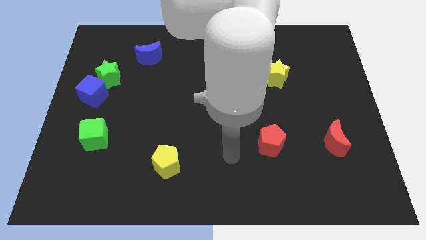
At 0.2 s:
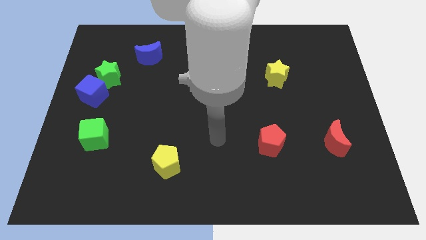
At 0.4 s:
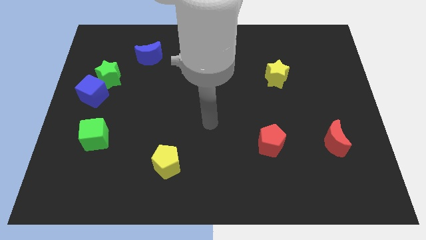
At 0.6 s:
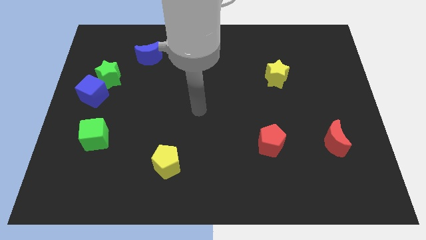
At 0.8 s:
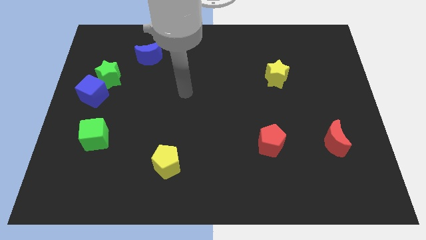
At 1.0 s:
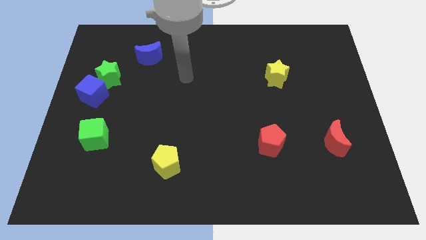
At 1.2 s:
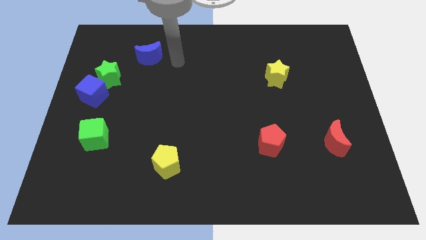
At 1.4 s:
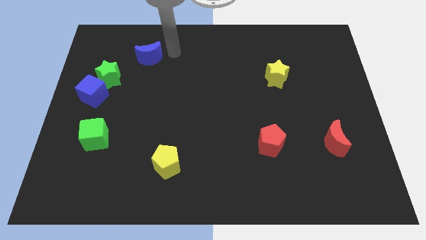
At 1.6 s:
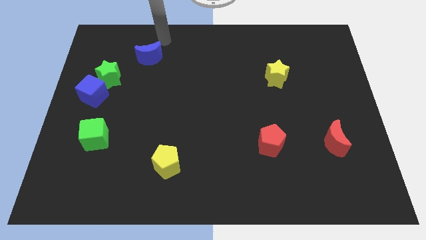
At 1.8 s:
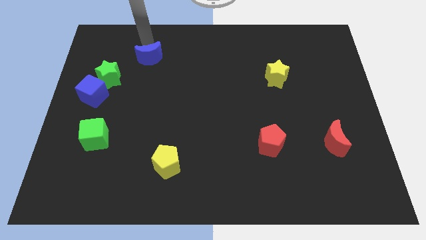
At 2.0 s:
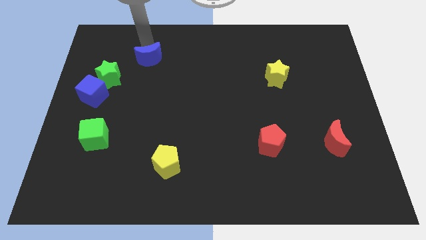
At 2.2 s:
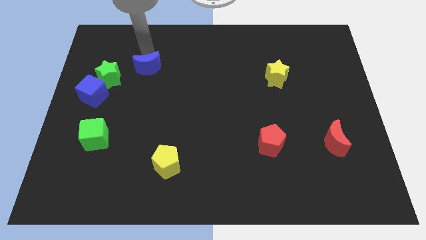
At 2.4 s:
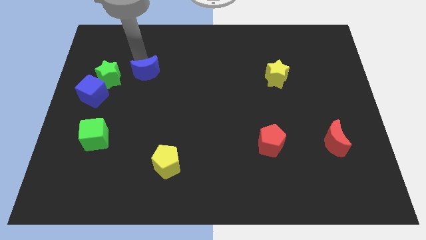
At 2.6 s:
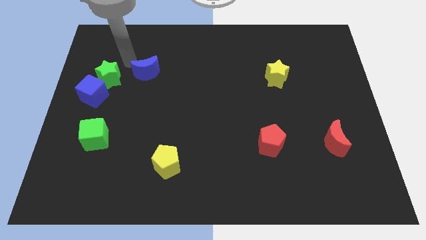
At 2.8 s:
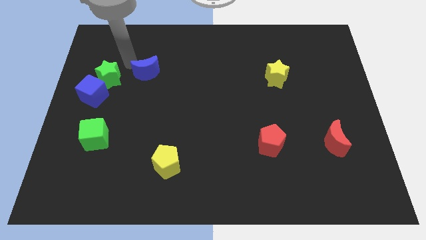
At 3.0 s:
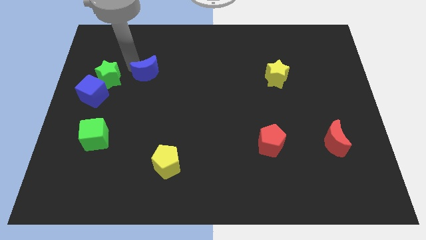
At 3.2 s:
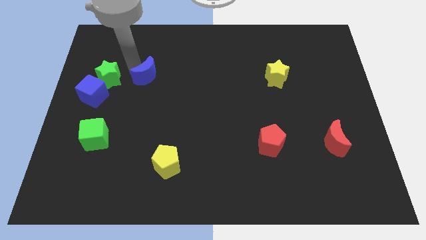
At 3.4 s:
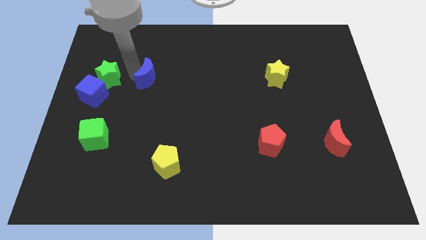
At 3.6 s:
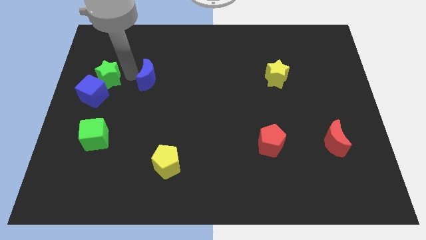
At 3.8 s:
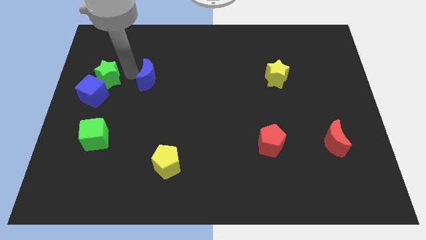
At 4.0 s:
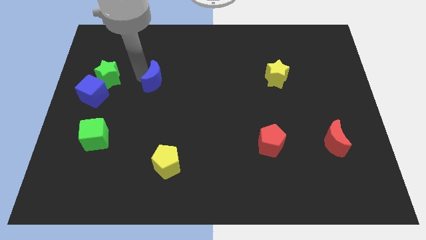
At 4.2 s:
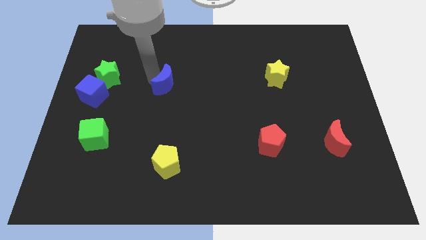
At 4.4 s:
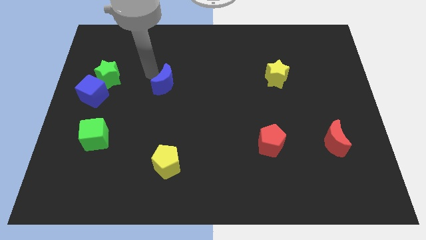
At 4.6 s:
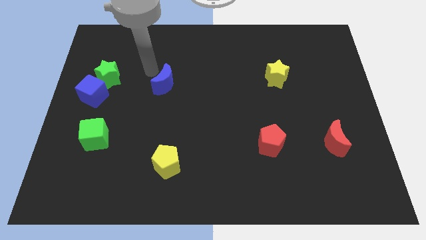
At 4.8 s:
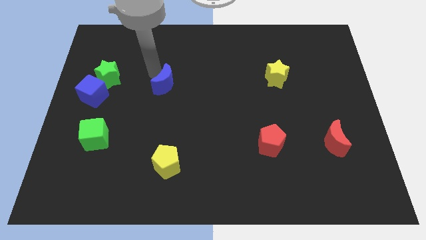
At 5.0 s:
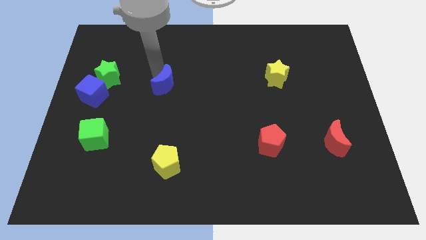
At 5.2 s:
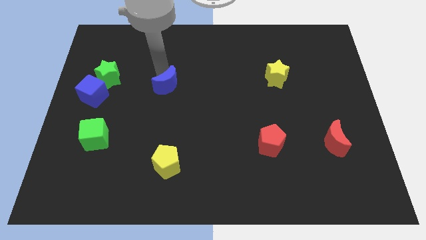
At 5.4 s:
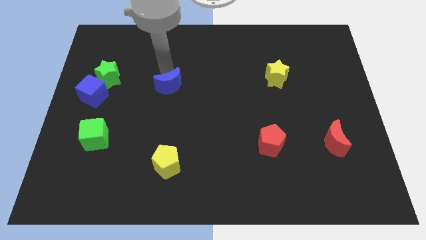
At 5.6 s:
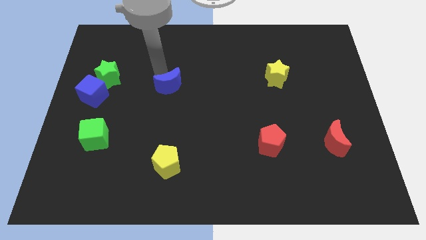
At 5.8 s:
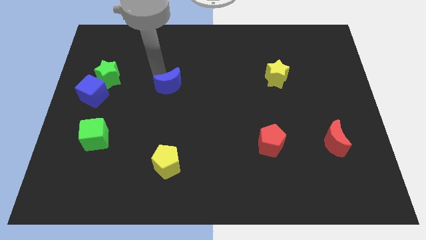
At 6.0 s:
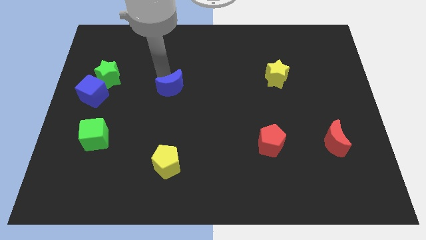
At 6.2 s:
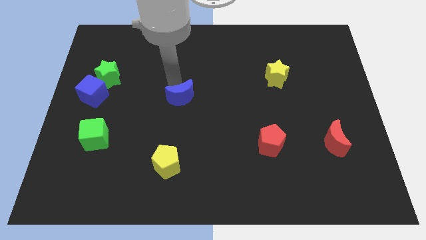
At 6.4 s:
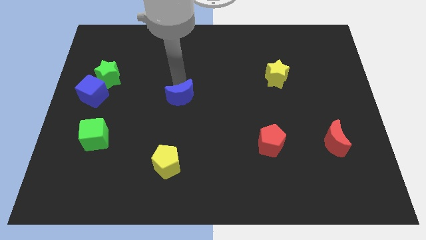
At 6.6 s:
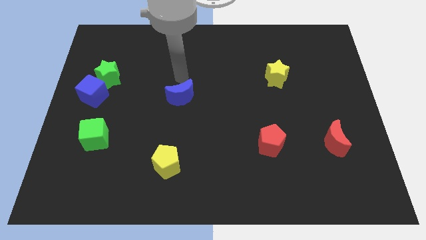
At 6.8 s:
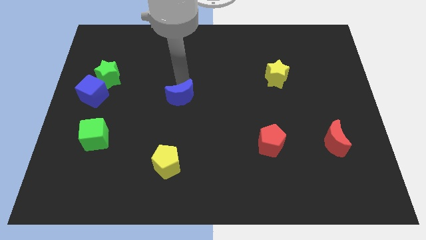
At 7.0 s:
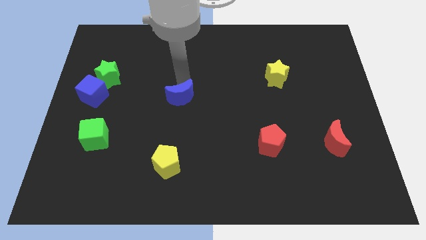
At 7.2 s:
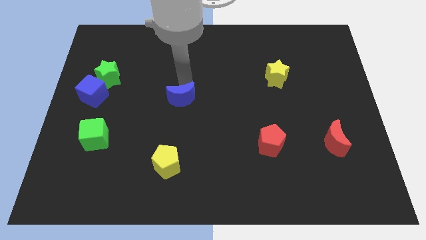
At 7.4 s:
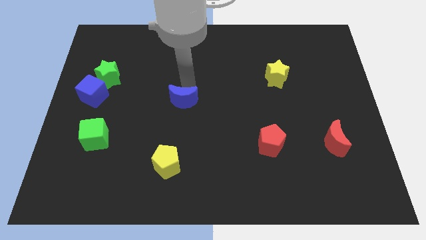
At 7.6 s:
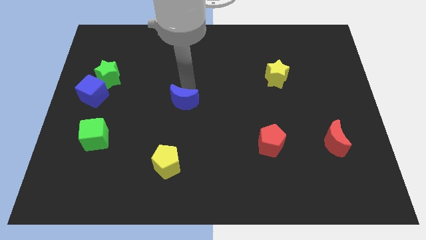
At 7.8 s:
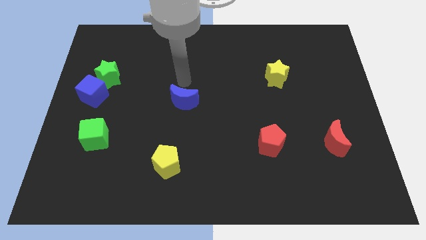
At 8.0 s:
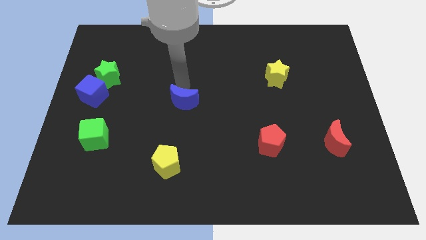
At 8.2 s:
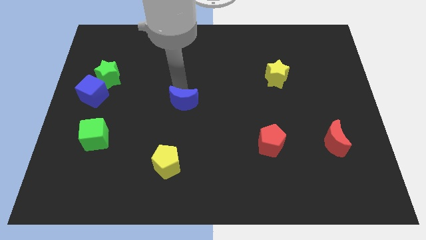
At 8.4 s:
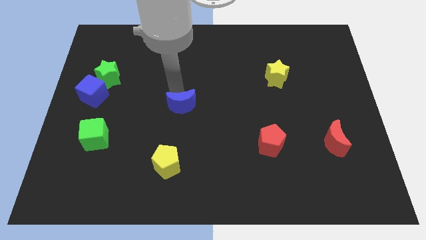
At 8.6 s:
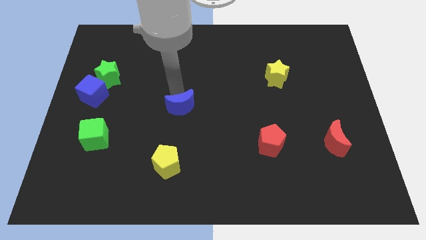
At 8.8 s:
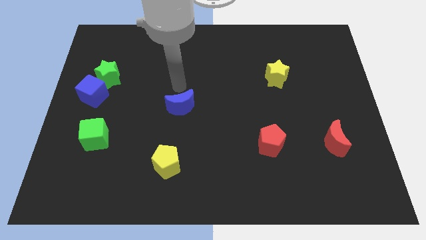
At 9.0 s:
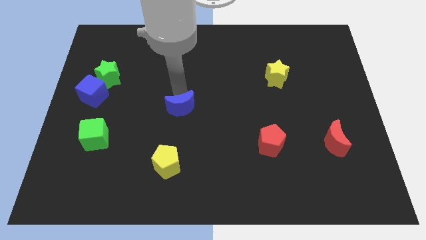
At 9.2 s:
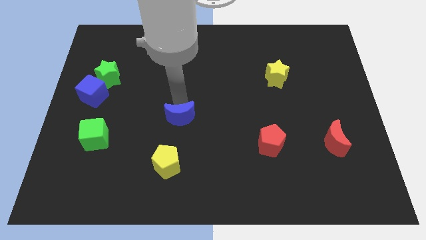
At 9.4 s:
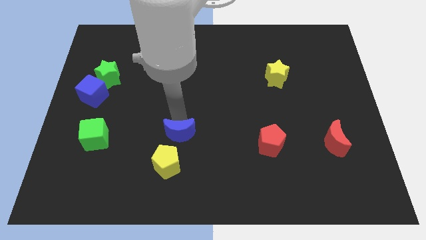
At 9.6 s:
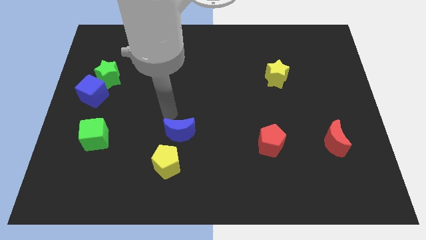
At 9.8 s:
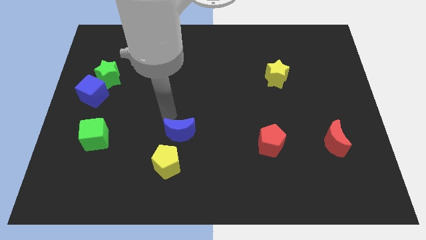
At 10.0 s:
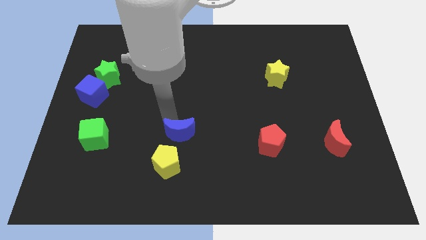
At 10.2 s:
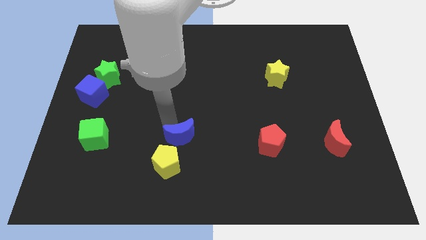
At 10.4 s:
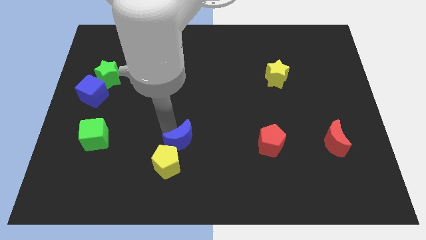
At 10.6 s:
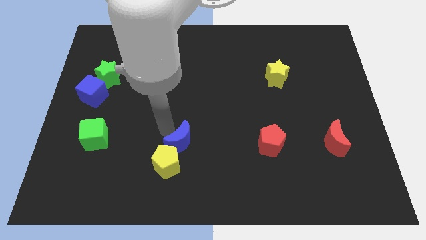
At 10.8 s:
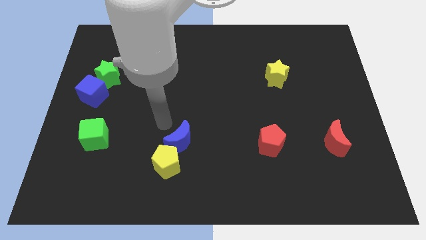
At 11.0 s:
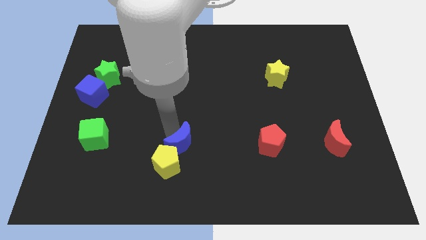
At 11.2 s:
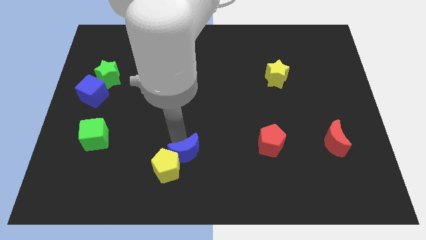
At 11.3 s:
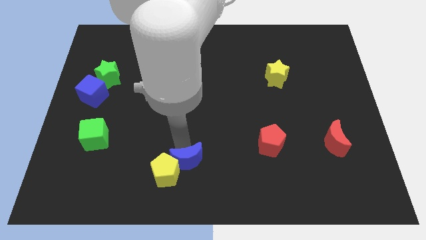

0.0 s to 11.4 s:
push the blue moon to the bottom side
